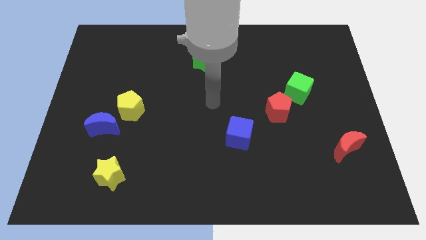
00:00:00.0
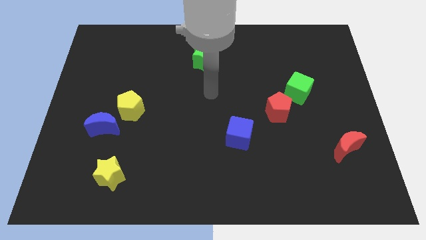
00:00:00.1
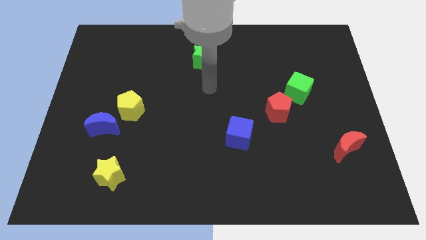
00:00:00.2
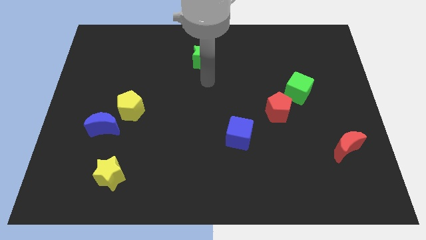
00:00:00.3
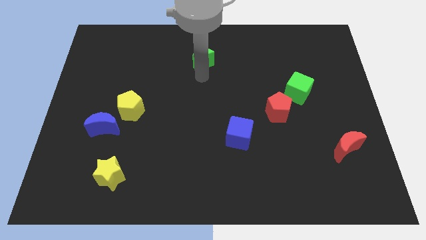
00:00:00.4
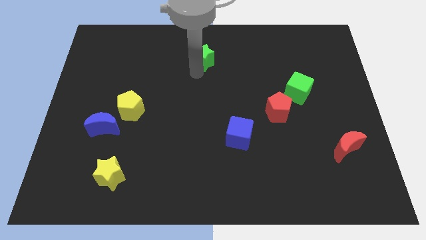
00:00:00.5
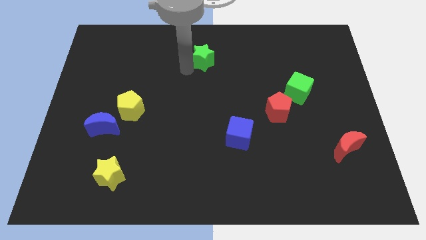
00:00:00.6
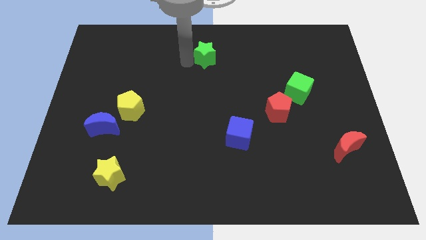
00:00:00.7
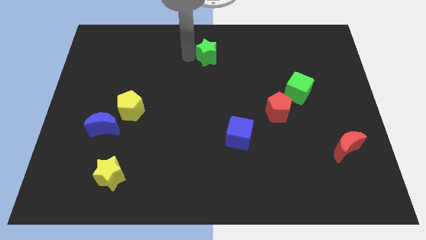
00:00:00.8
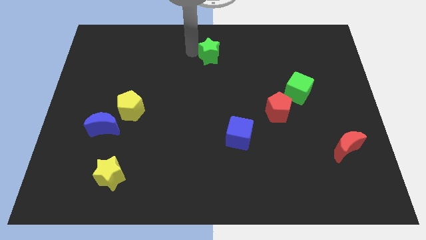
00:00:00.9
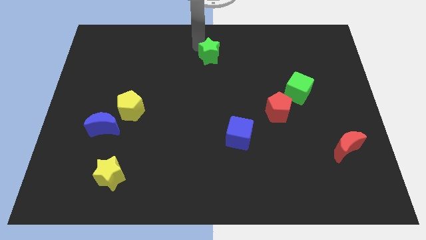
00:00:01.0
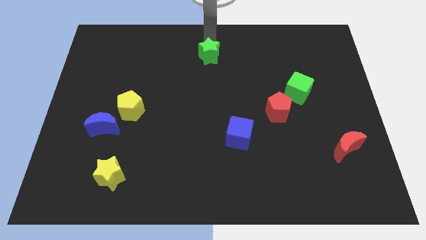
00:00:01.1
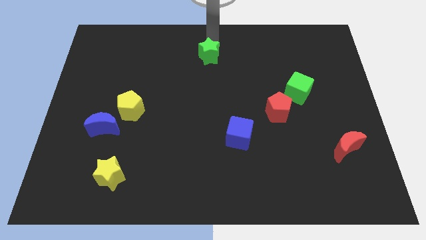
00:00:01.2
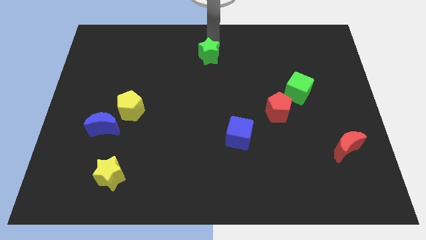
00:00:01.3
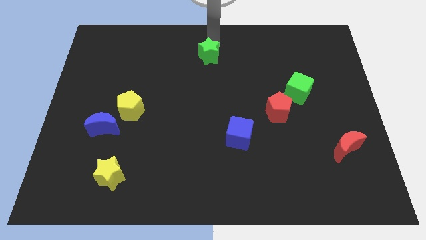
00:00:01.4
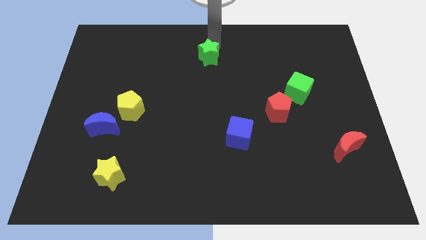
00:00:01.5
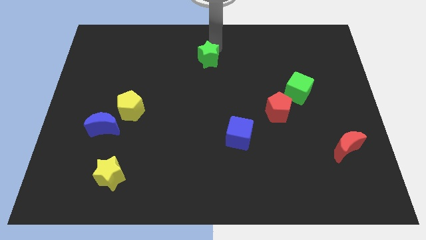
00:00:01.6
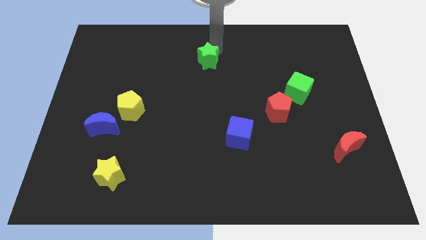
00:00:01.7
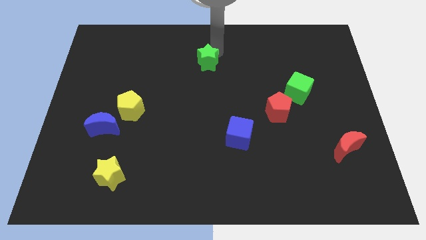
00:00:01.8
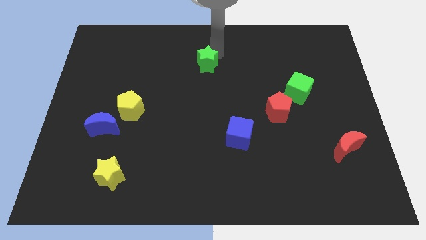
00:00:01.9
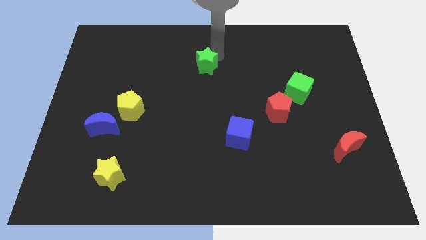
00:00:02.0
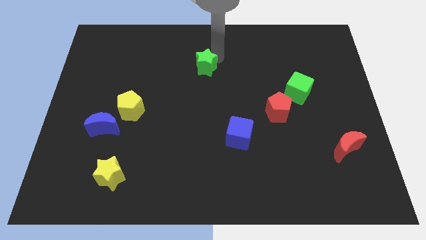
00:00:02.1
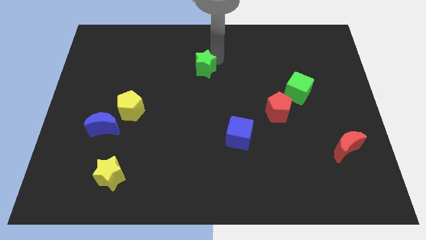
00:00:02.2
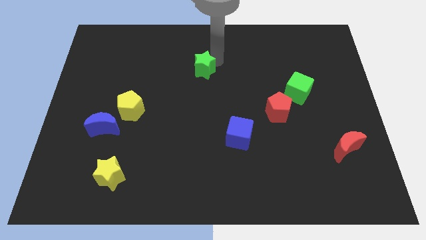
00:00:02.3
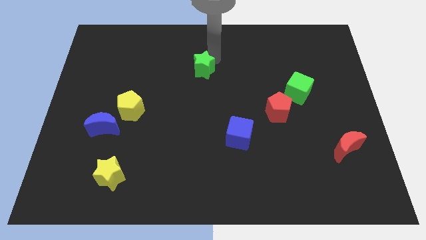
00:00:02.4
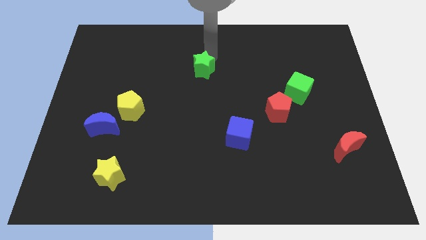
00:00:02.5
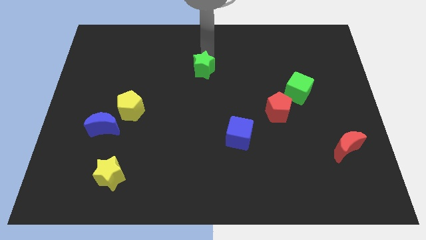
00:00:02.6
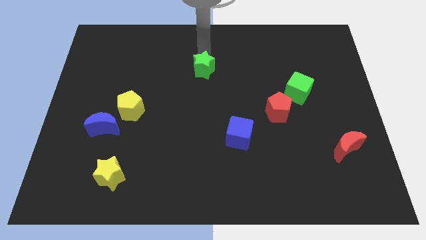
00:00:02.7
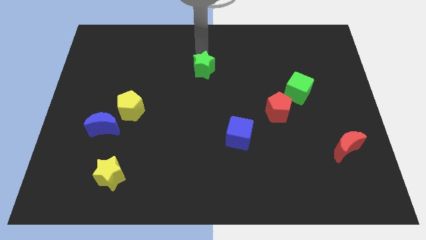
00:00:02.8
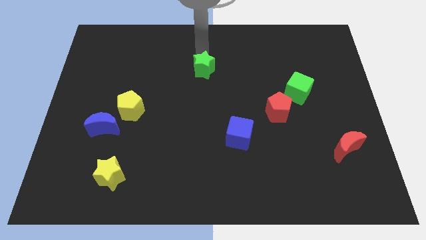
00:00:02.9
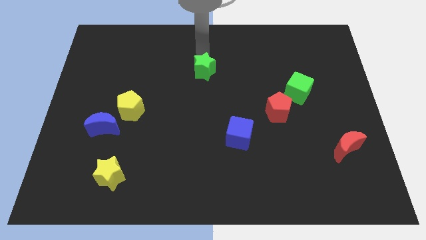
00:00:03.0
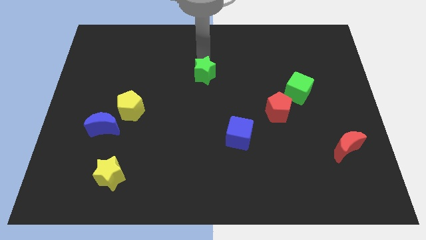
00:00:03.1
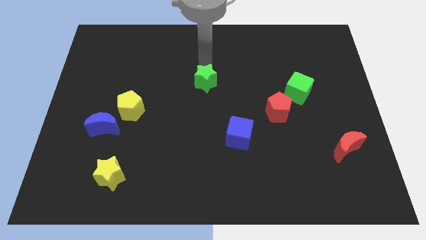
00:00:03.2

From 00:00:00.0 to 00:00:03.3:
slightly push the green star downwards

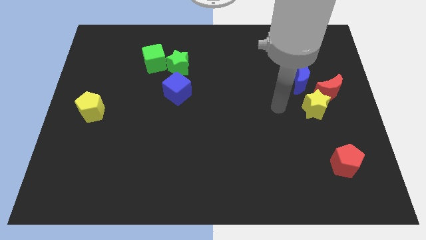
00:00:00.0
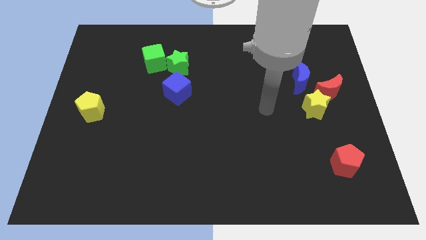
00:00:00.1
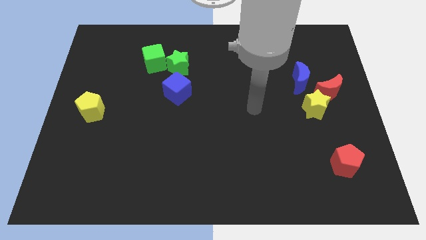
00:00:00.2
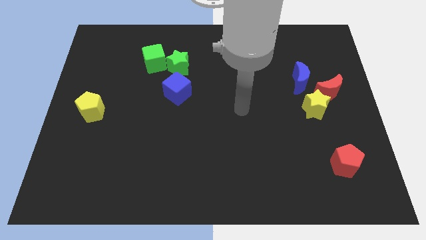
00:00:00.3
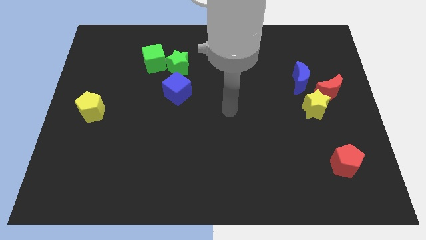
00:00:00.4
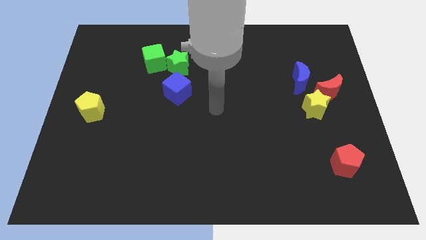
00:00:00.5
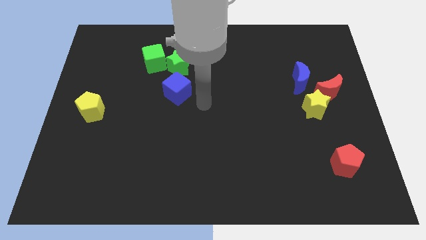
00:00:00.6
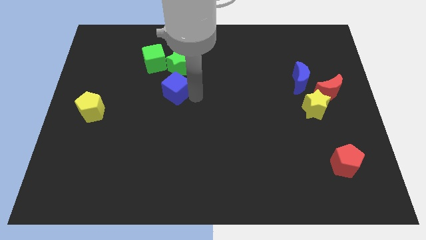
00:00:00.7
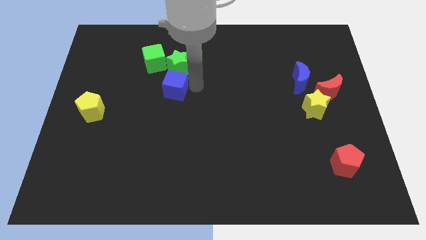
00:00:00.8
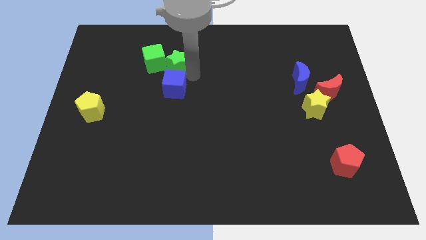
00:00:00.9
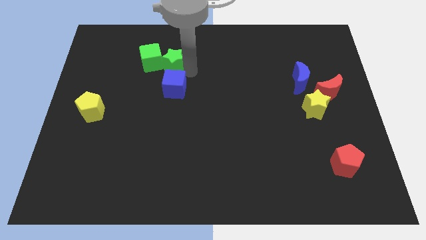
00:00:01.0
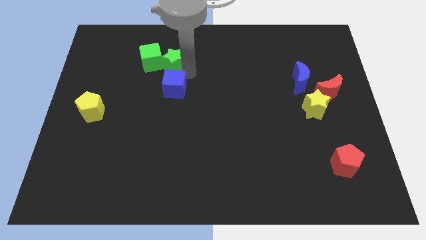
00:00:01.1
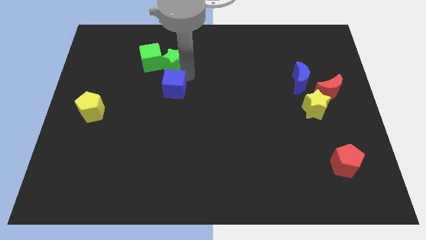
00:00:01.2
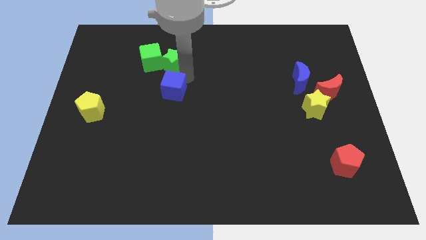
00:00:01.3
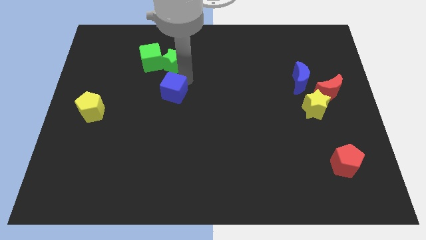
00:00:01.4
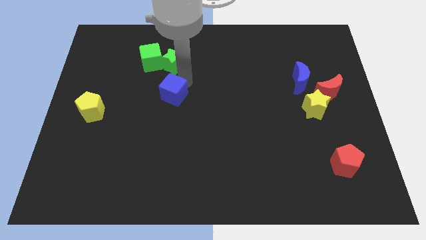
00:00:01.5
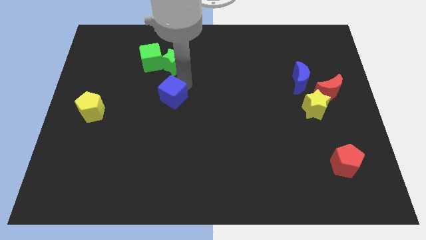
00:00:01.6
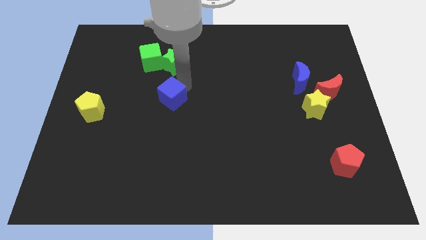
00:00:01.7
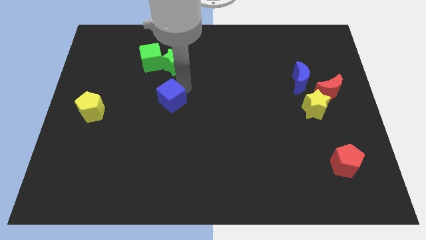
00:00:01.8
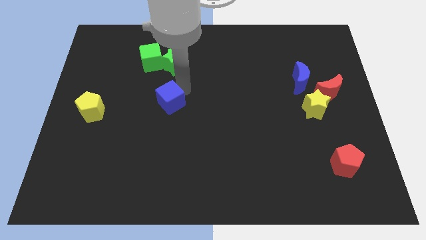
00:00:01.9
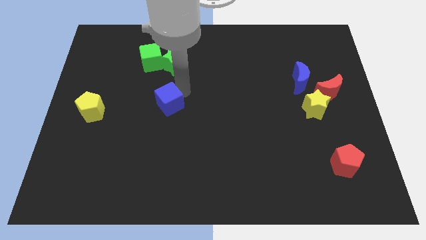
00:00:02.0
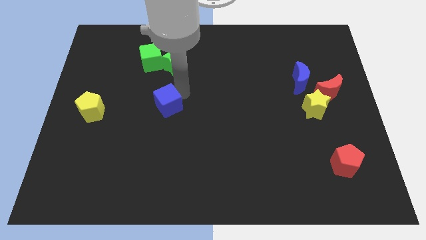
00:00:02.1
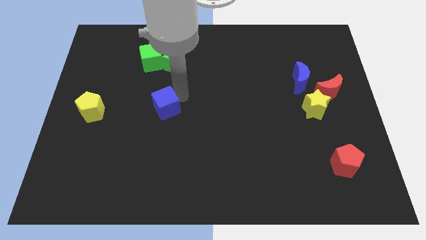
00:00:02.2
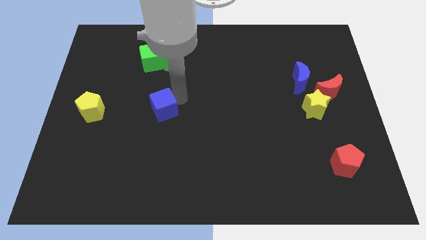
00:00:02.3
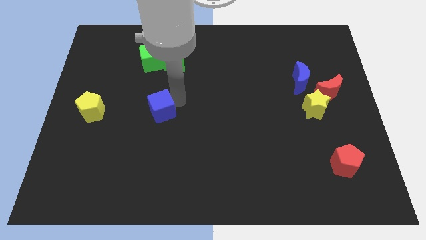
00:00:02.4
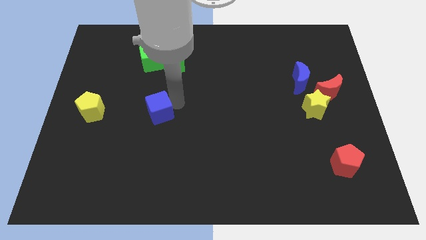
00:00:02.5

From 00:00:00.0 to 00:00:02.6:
slightly slide the blue cube downwards and then left

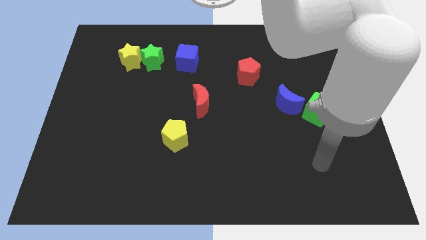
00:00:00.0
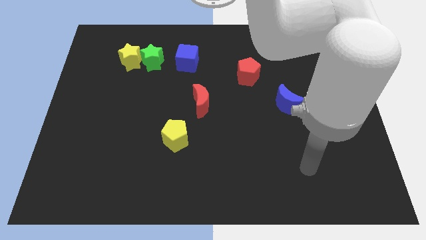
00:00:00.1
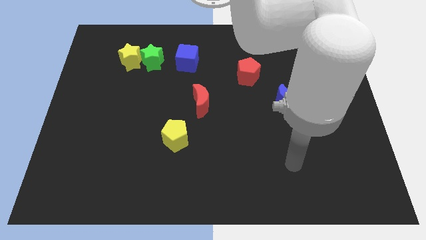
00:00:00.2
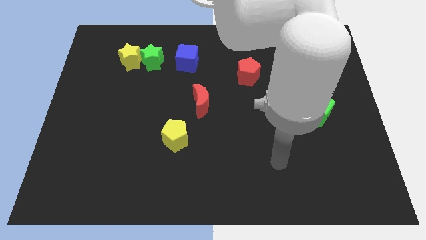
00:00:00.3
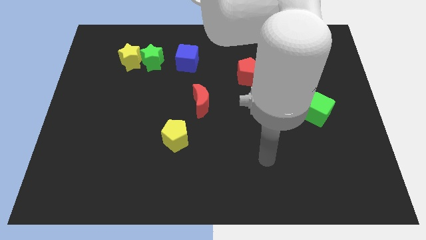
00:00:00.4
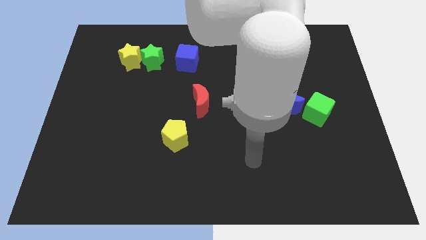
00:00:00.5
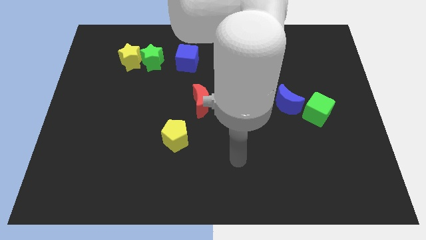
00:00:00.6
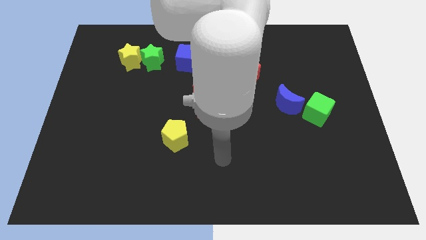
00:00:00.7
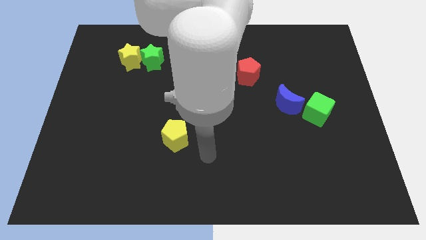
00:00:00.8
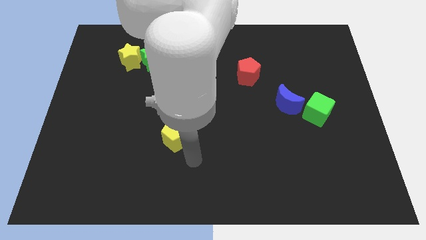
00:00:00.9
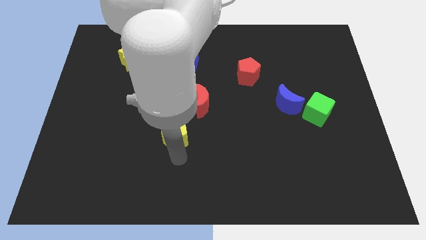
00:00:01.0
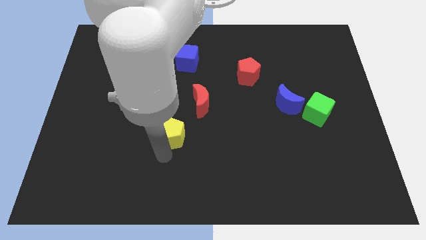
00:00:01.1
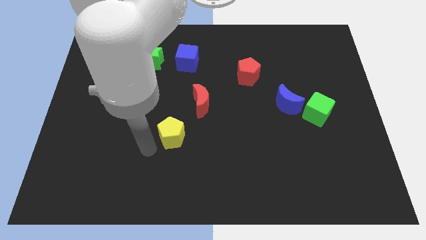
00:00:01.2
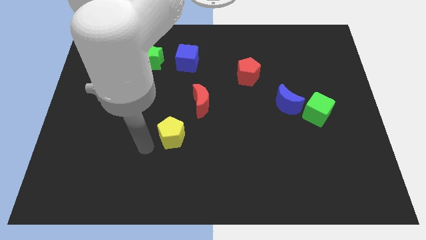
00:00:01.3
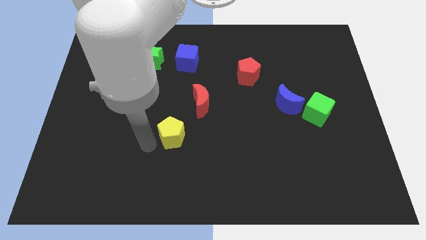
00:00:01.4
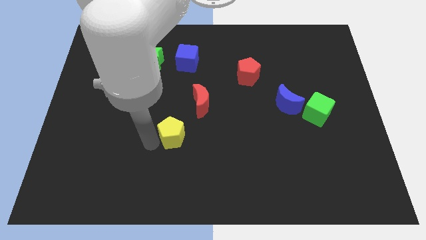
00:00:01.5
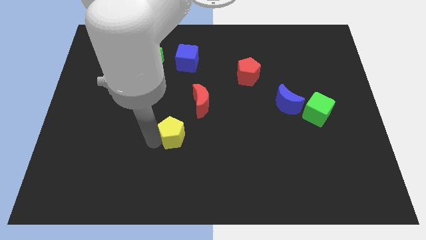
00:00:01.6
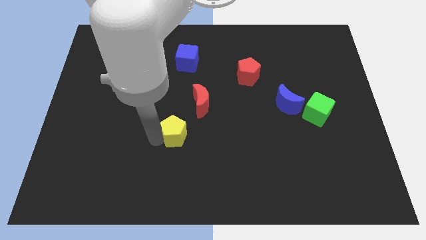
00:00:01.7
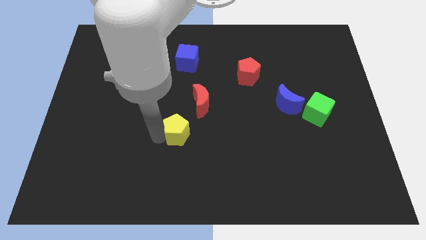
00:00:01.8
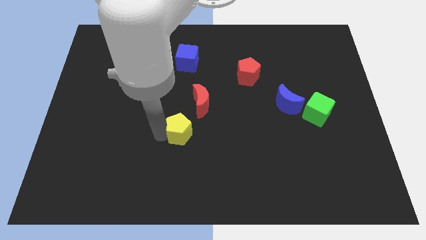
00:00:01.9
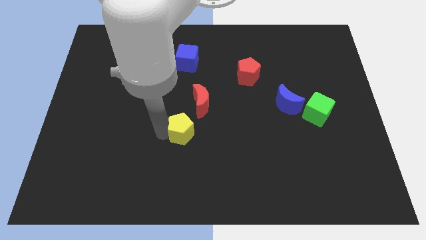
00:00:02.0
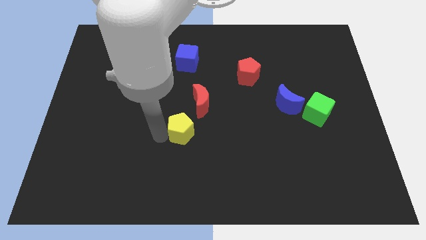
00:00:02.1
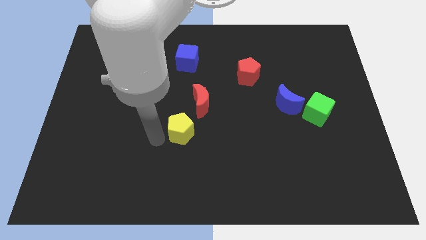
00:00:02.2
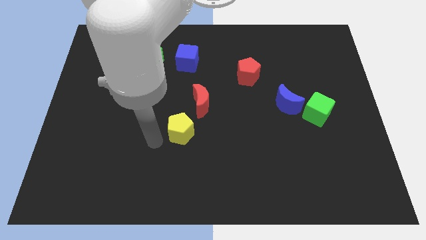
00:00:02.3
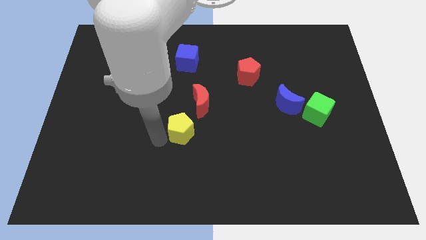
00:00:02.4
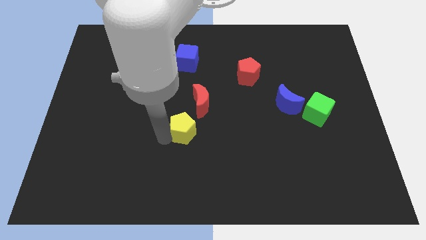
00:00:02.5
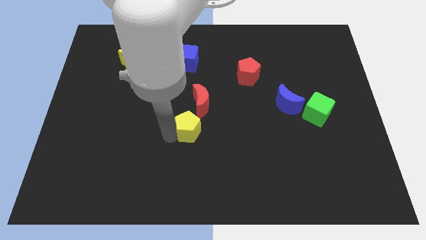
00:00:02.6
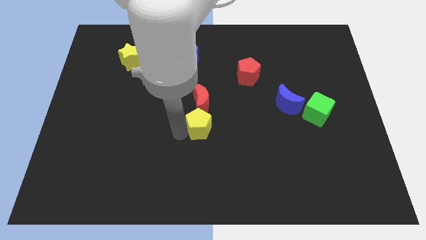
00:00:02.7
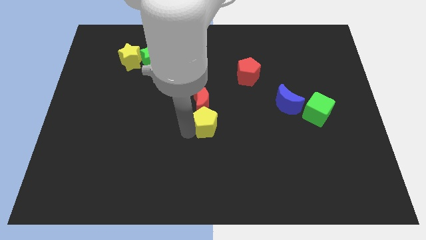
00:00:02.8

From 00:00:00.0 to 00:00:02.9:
slide the yellow pentagon upwards and then to the right a little
